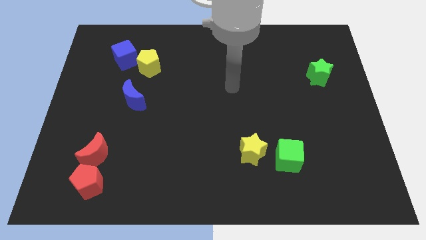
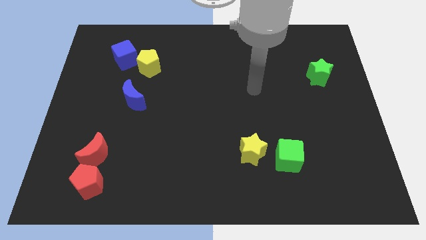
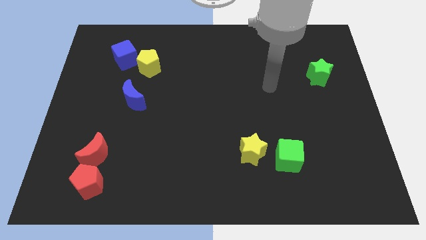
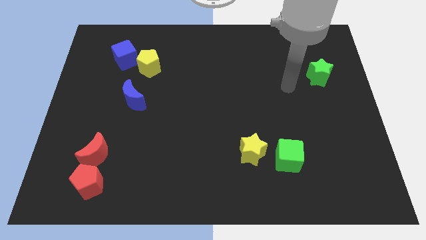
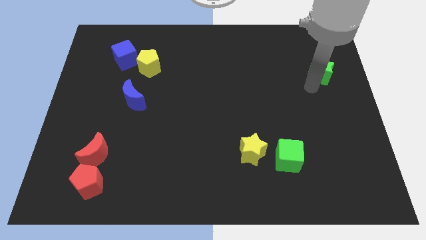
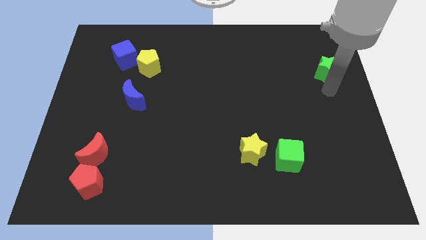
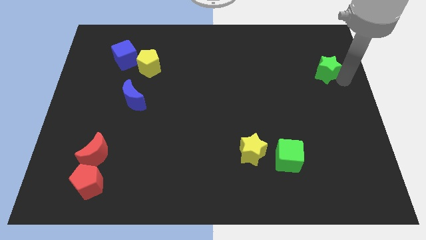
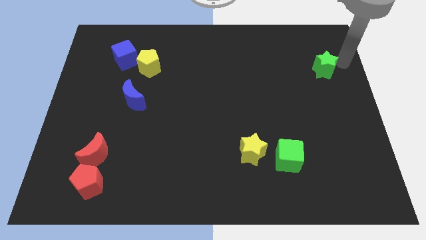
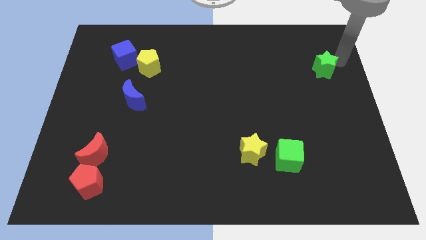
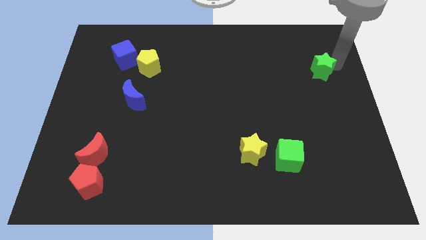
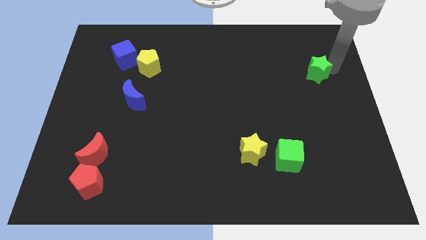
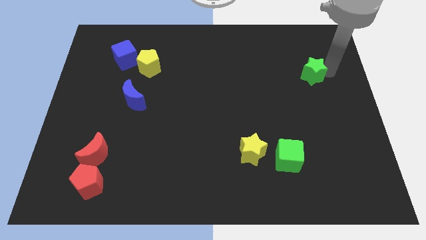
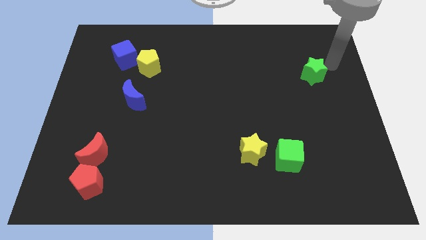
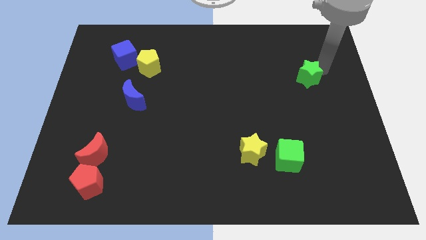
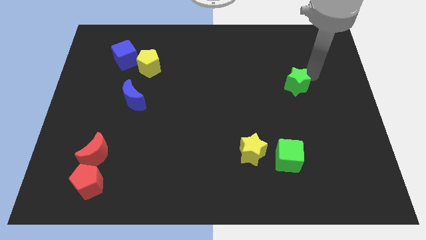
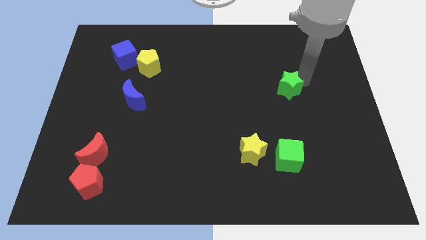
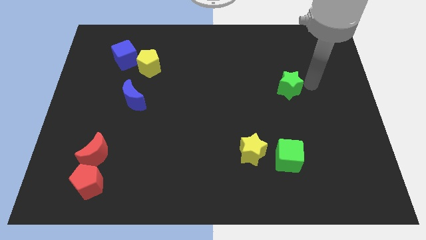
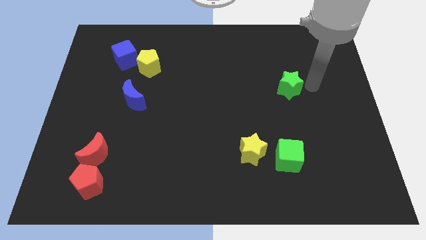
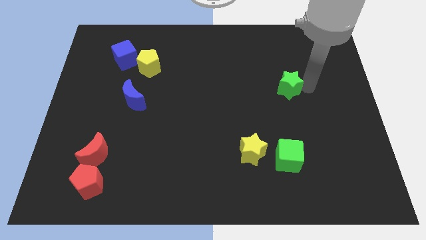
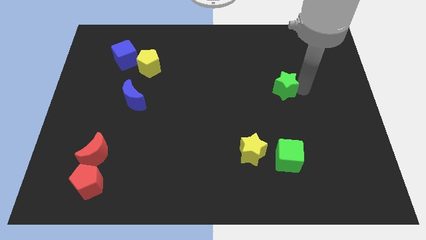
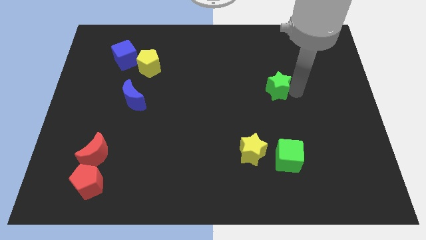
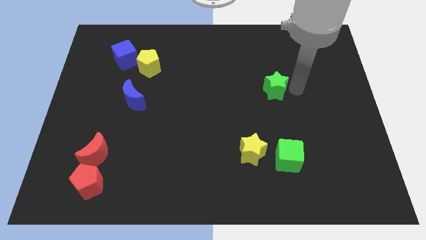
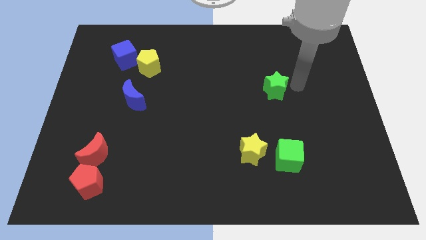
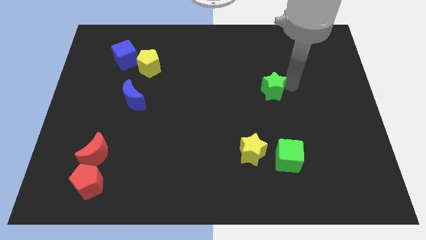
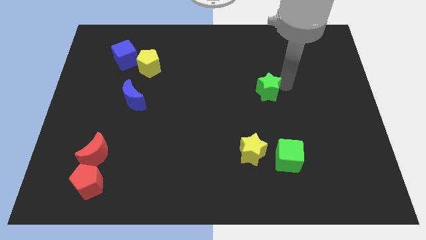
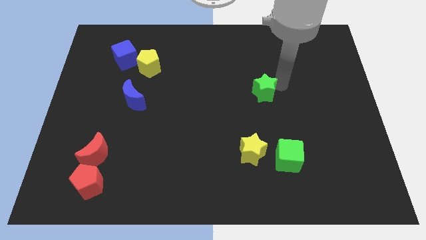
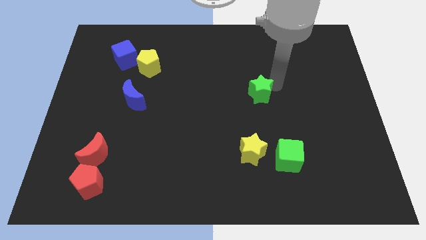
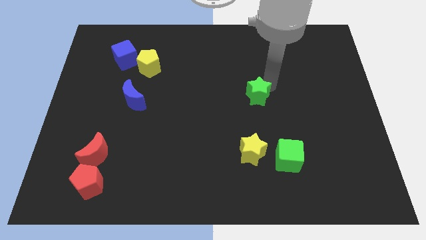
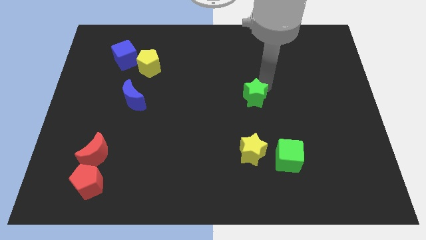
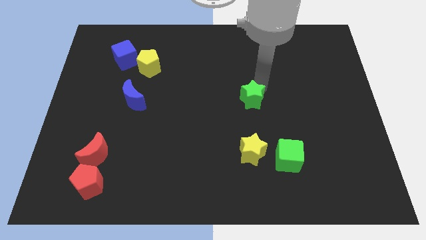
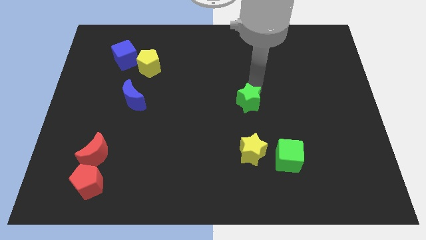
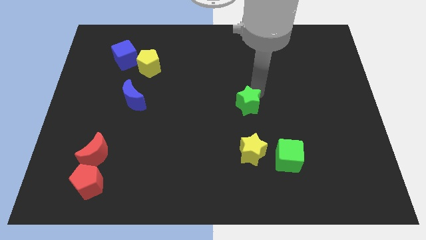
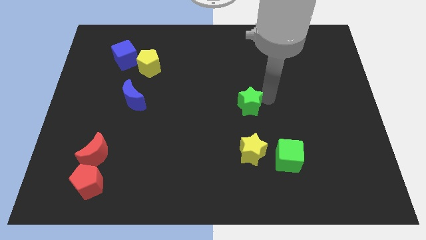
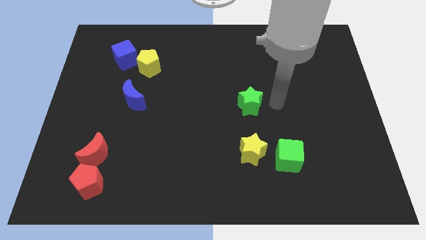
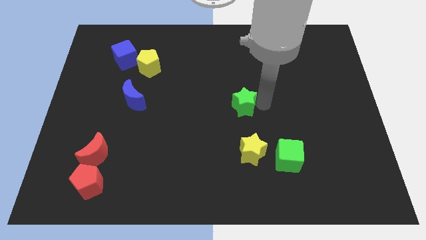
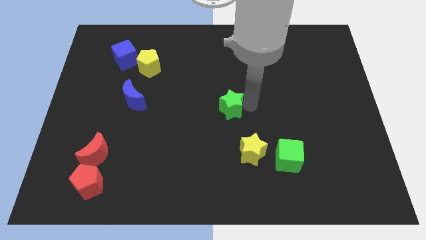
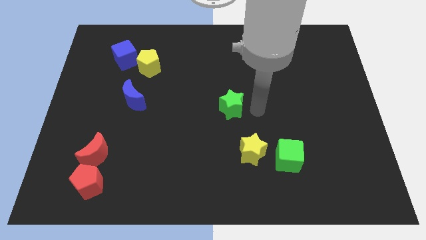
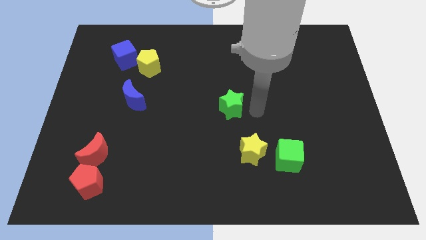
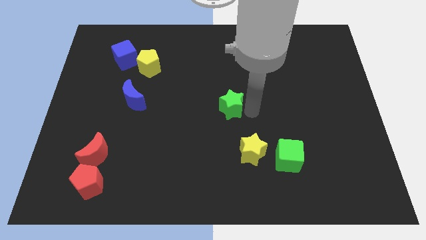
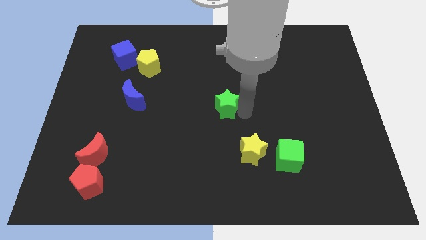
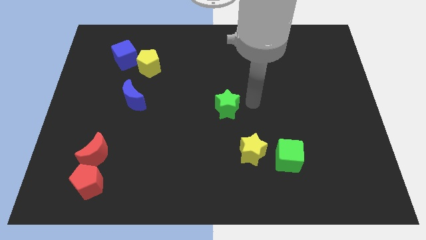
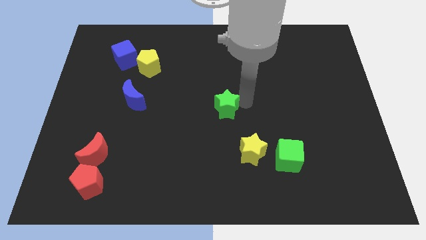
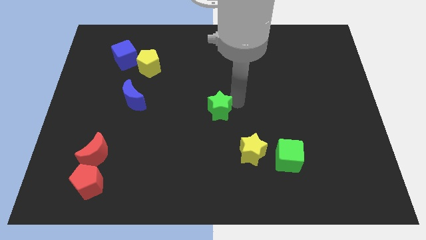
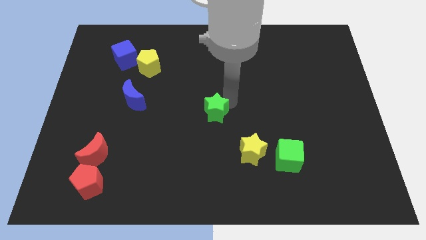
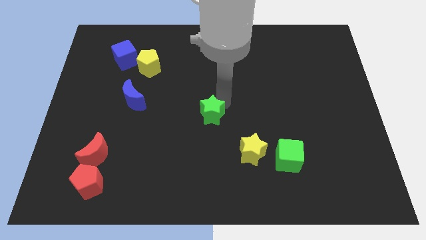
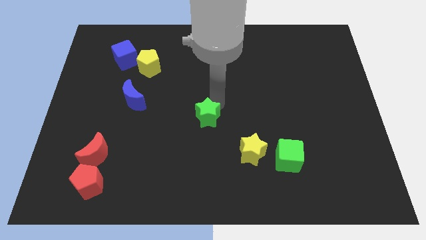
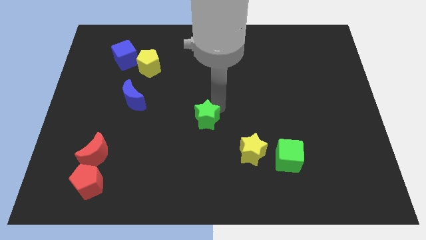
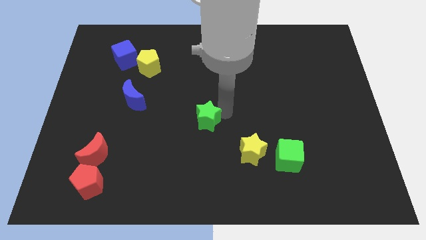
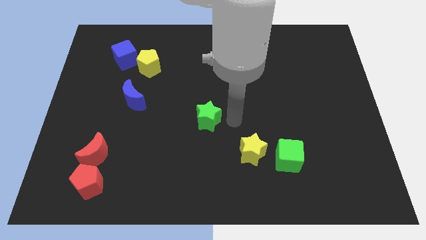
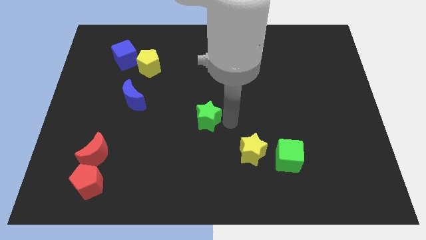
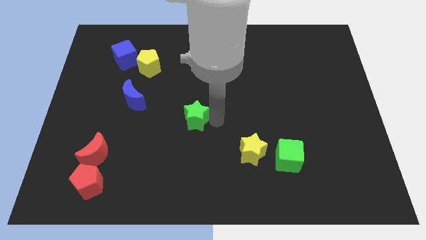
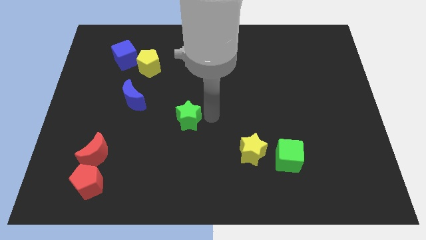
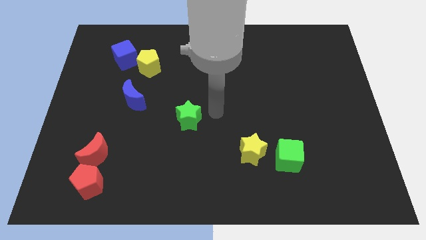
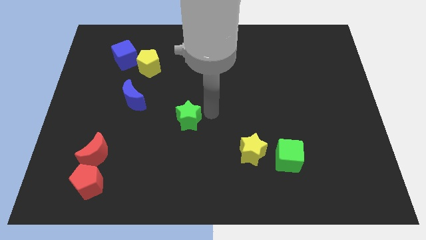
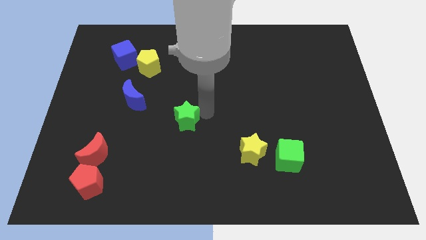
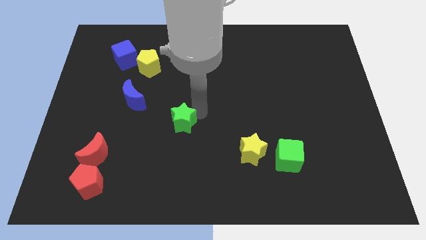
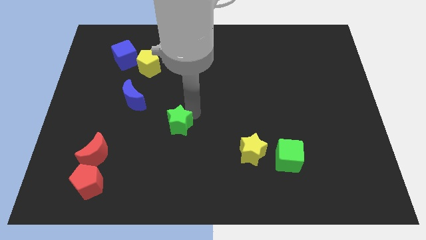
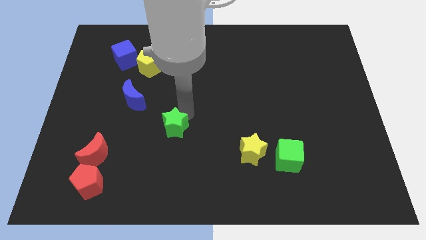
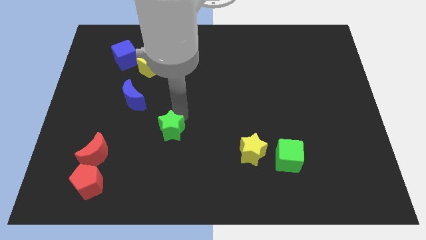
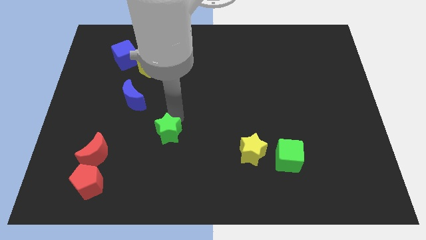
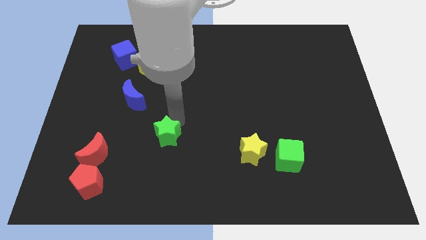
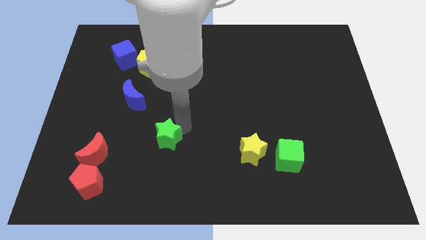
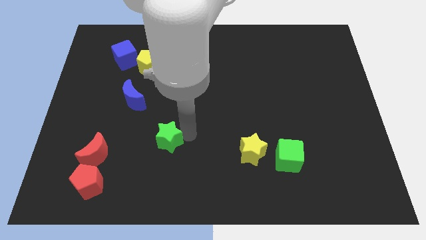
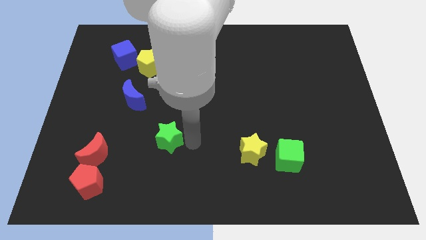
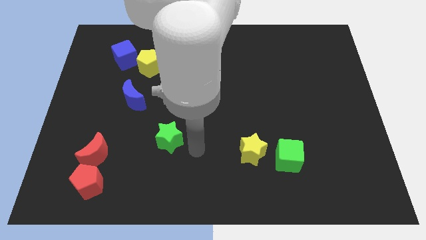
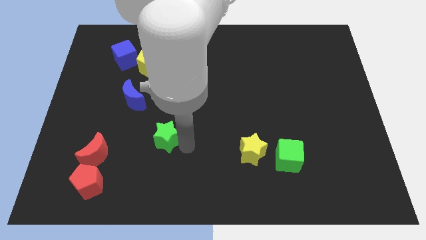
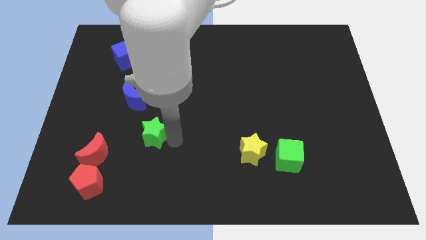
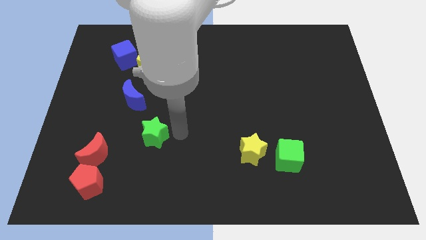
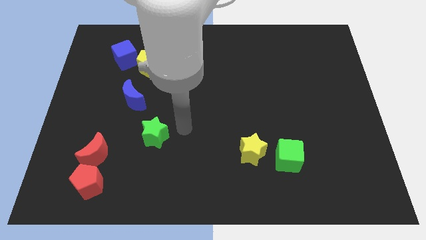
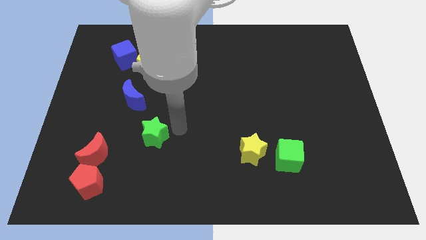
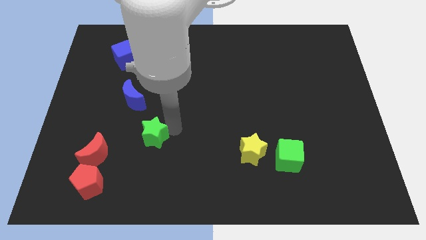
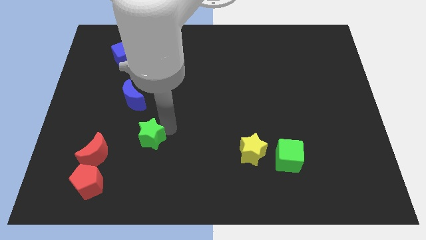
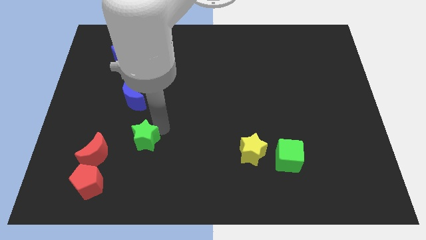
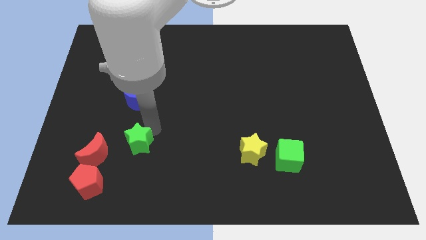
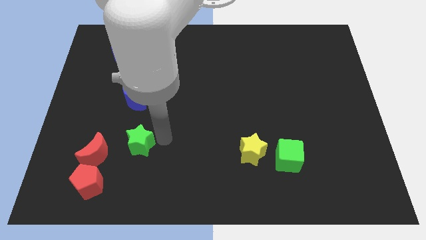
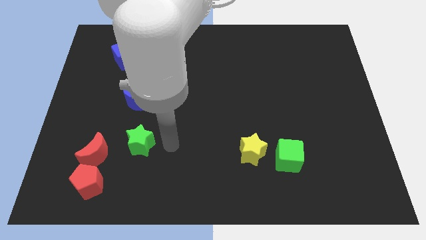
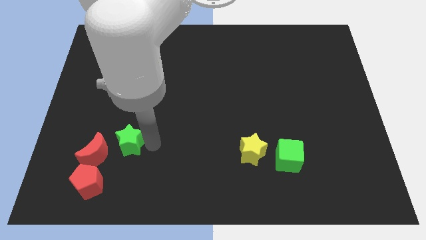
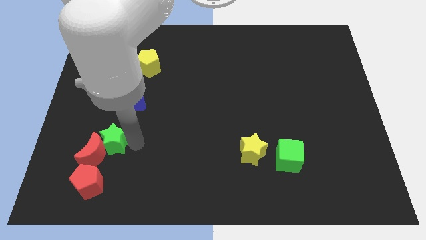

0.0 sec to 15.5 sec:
put the green star to the top side of the red pentagon
